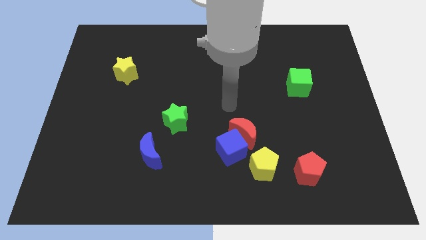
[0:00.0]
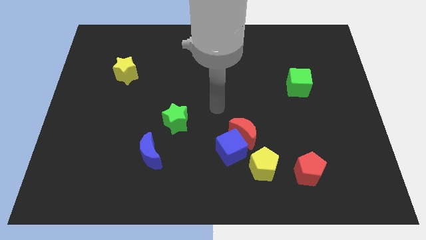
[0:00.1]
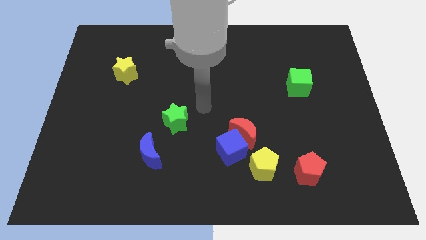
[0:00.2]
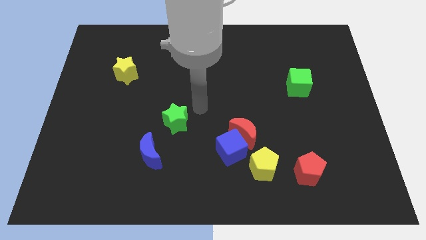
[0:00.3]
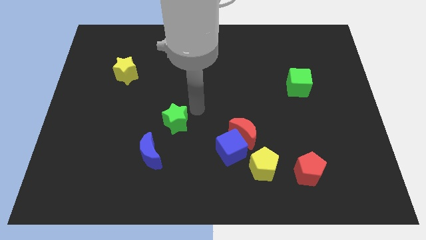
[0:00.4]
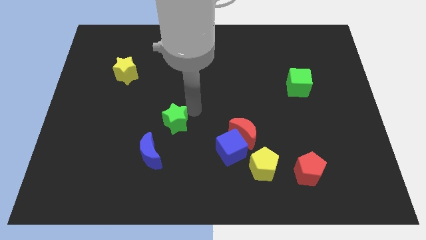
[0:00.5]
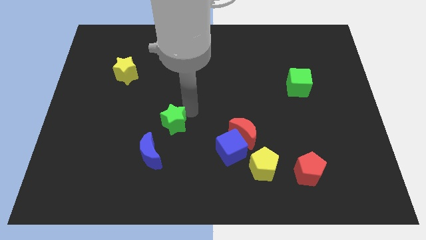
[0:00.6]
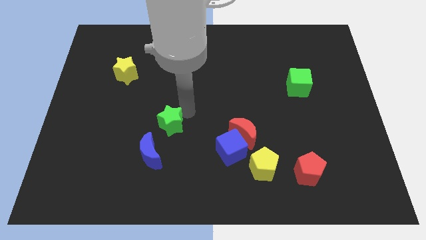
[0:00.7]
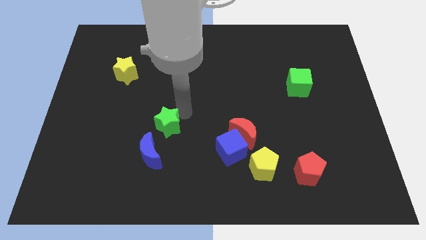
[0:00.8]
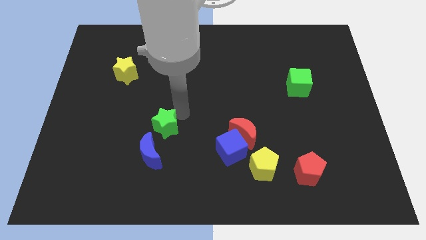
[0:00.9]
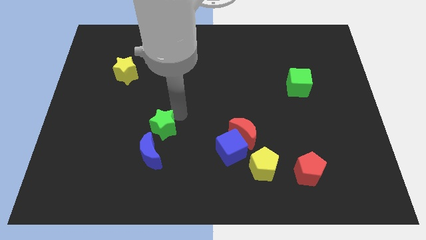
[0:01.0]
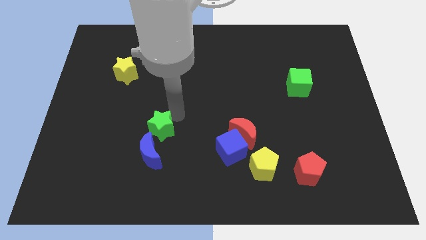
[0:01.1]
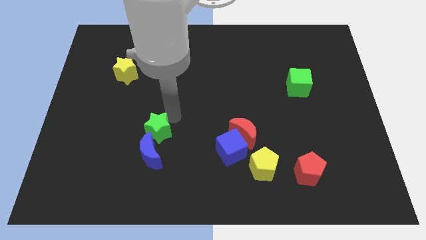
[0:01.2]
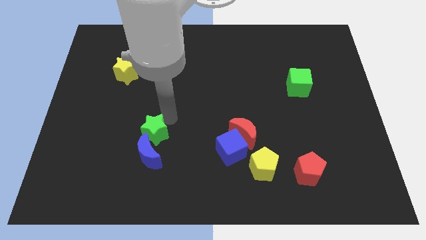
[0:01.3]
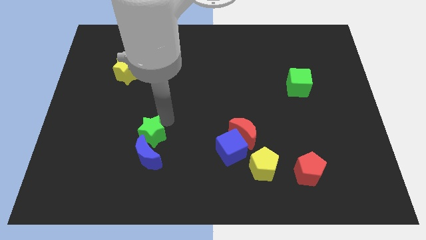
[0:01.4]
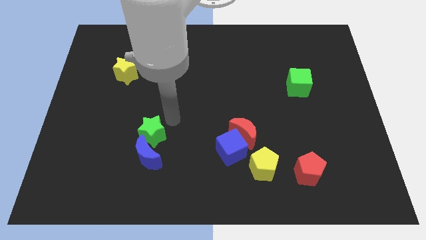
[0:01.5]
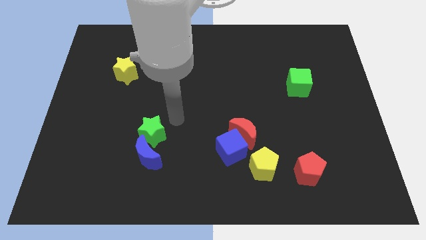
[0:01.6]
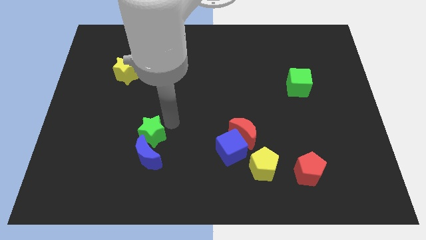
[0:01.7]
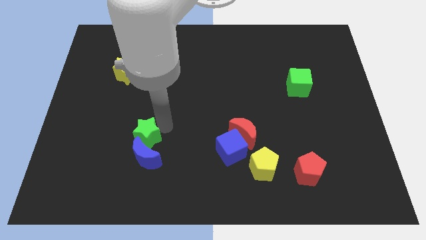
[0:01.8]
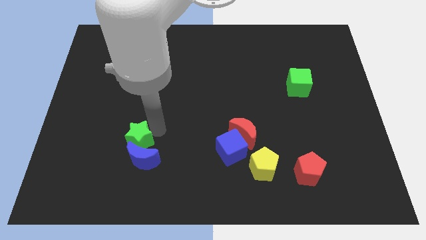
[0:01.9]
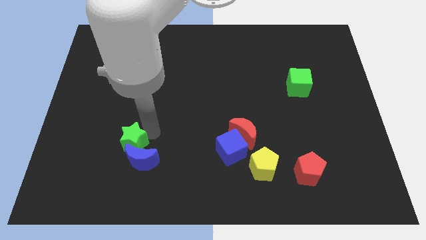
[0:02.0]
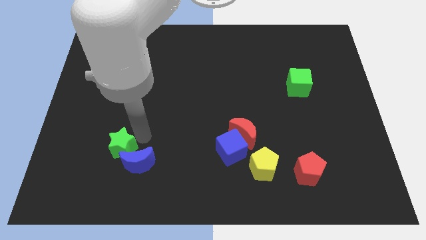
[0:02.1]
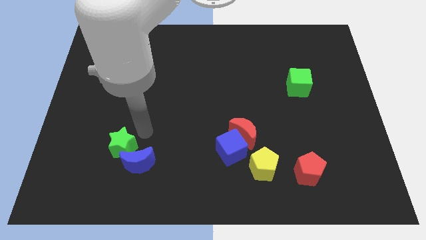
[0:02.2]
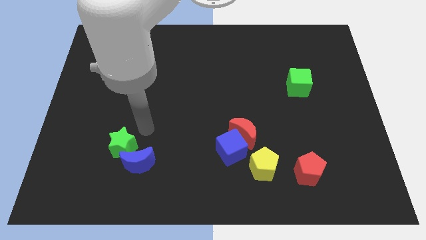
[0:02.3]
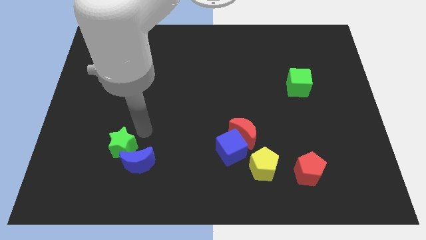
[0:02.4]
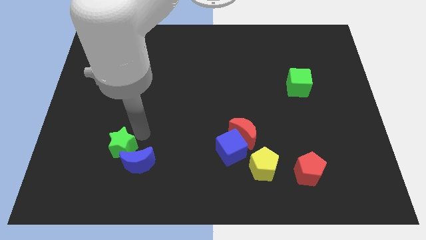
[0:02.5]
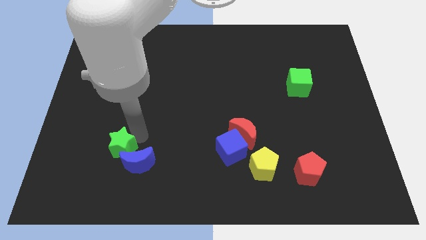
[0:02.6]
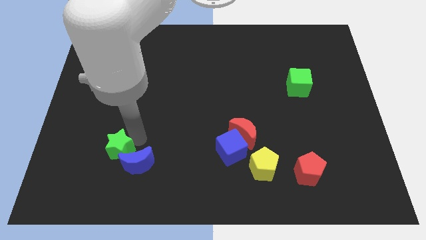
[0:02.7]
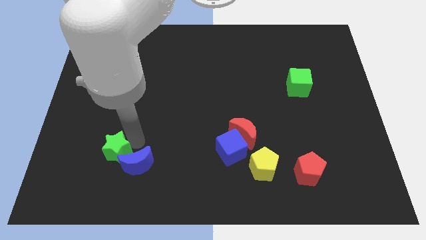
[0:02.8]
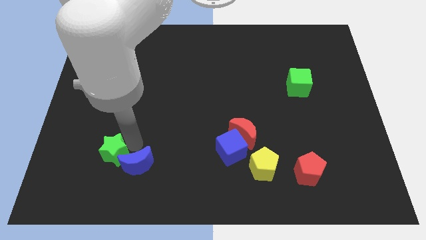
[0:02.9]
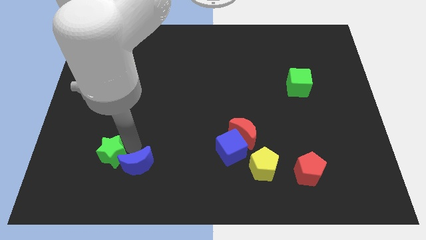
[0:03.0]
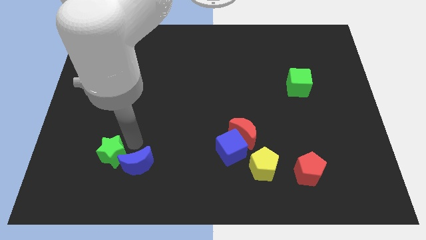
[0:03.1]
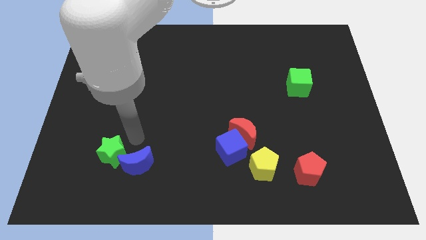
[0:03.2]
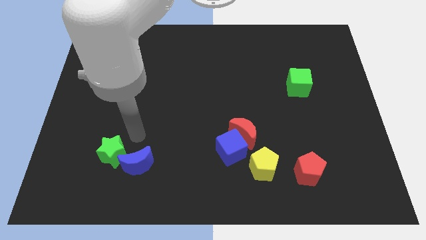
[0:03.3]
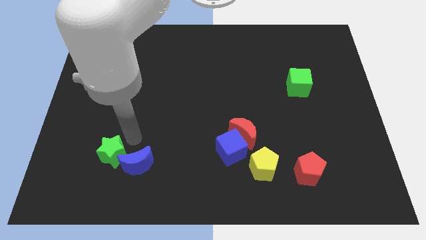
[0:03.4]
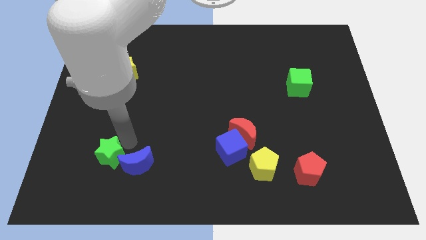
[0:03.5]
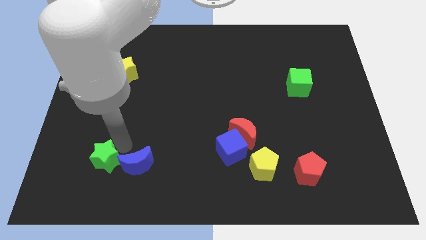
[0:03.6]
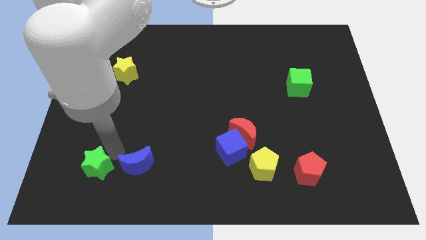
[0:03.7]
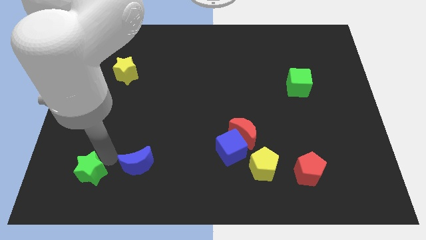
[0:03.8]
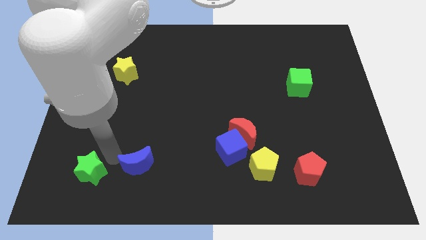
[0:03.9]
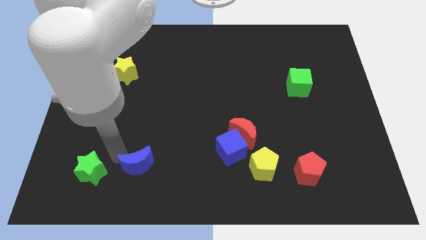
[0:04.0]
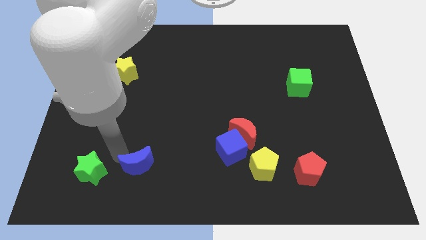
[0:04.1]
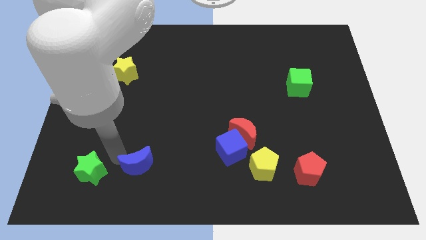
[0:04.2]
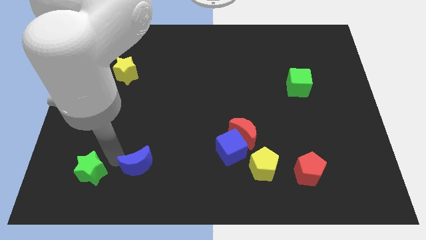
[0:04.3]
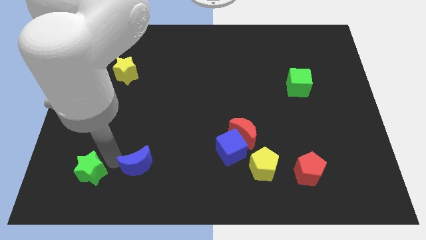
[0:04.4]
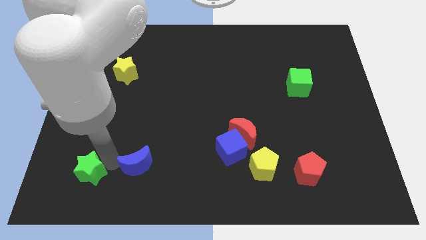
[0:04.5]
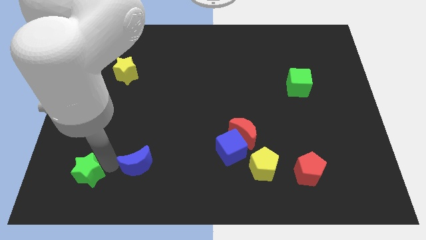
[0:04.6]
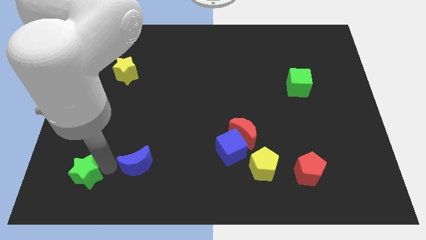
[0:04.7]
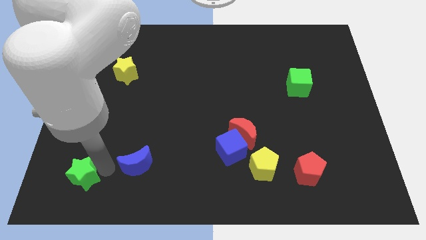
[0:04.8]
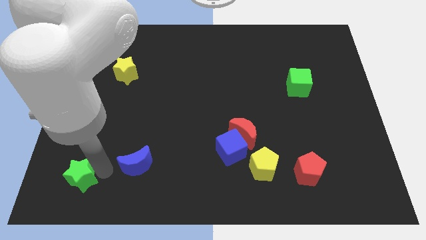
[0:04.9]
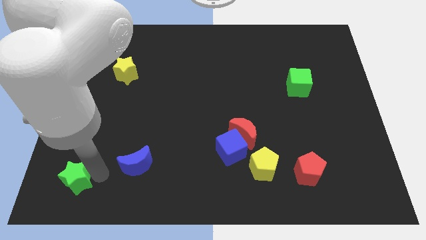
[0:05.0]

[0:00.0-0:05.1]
move the green star to the bottom left corner

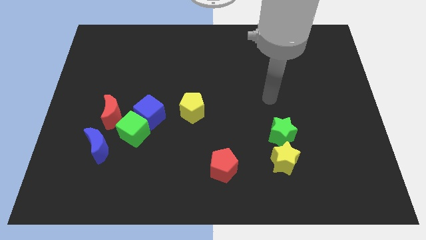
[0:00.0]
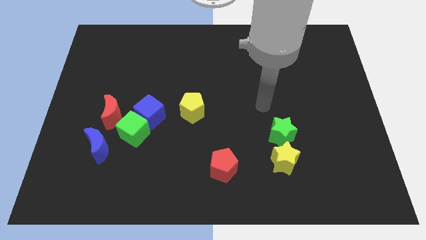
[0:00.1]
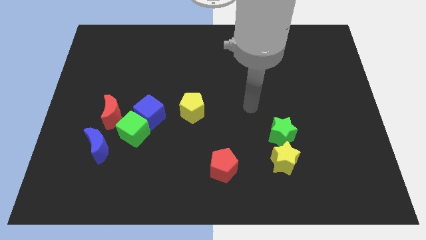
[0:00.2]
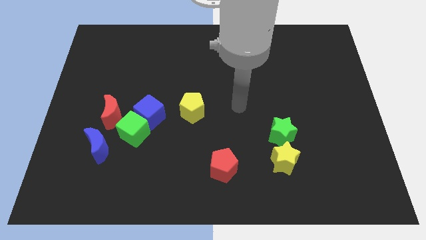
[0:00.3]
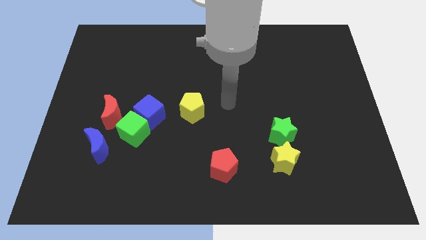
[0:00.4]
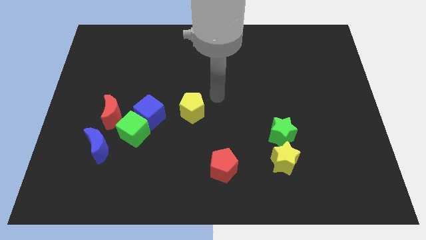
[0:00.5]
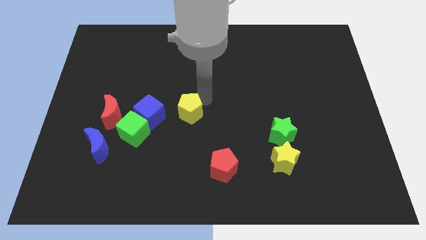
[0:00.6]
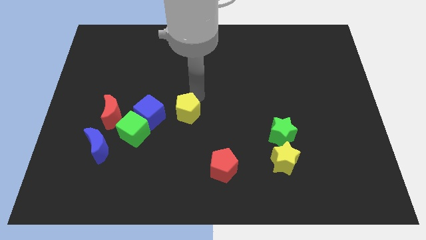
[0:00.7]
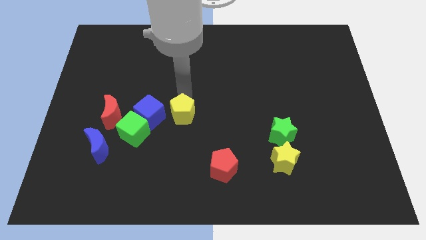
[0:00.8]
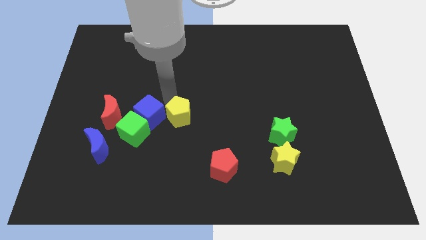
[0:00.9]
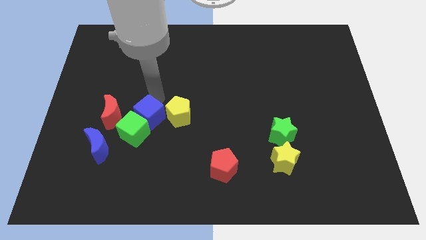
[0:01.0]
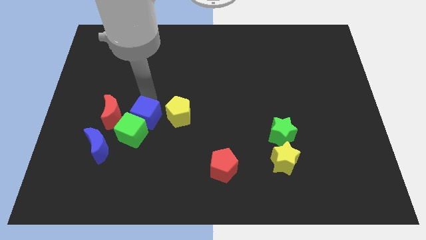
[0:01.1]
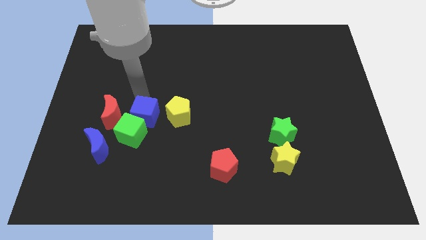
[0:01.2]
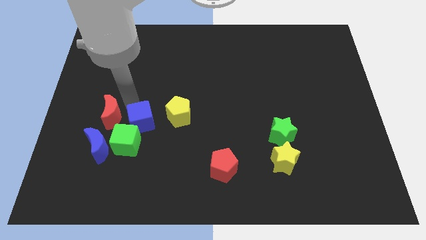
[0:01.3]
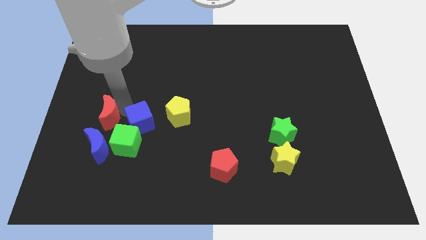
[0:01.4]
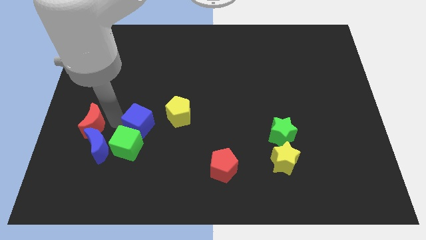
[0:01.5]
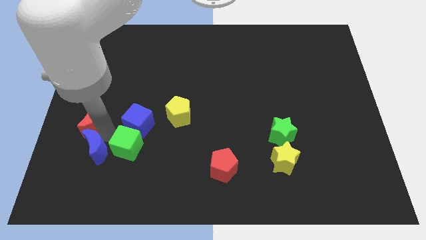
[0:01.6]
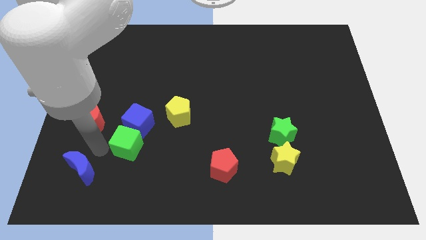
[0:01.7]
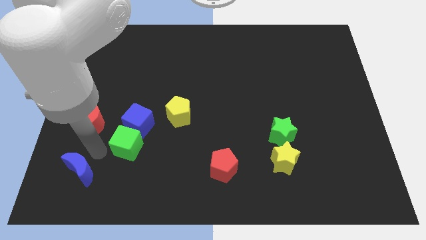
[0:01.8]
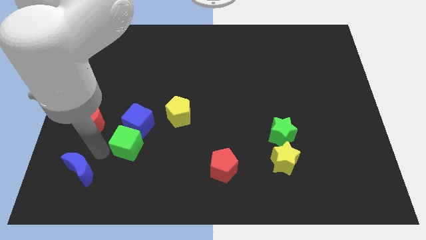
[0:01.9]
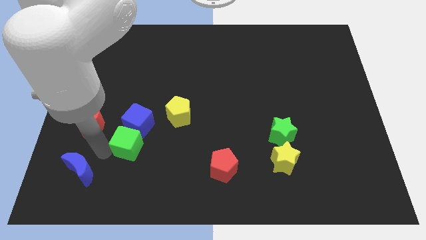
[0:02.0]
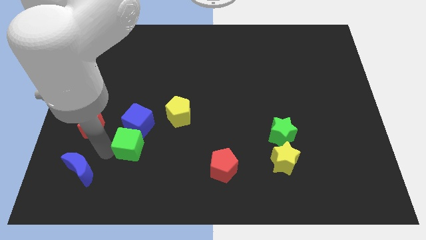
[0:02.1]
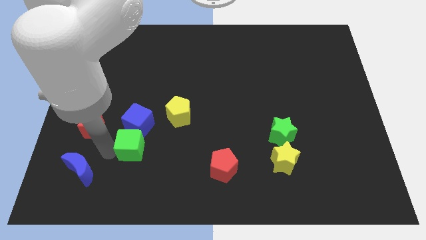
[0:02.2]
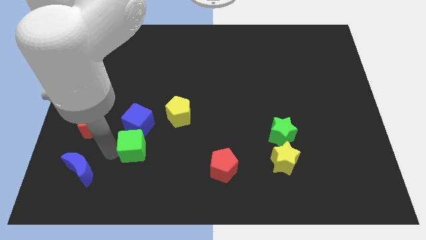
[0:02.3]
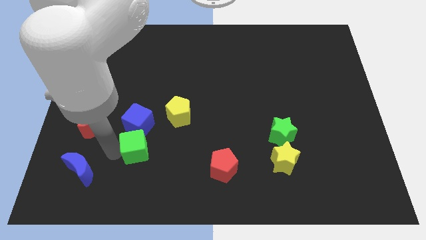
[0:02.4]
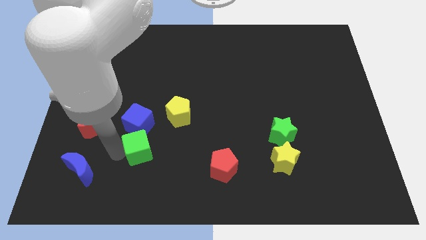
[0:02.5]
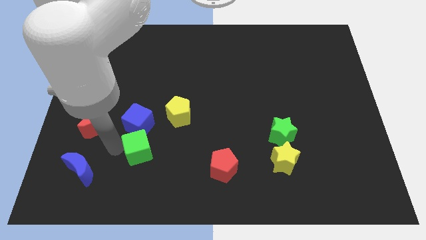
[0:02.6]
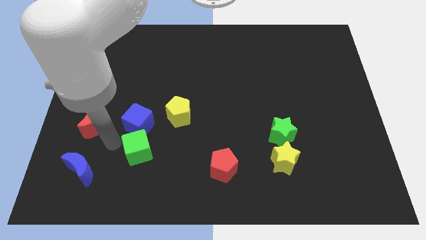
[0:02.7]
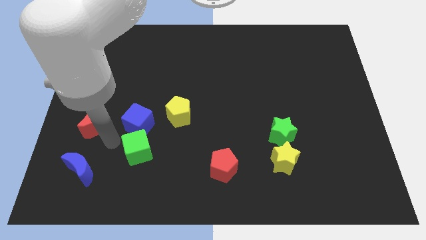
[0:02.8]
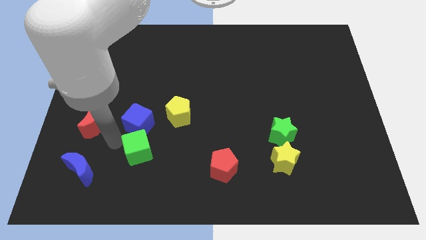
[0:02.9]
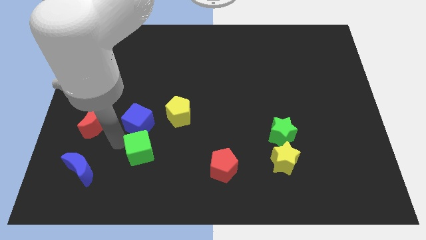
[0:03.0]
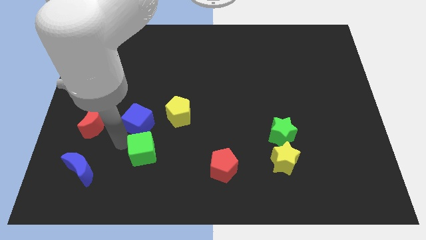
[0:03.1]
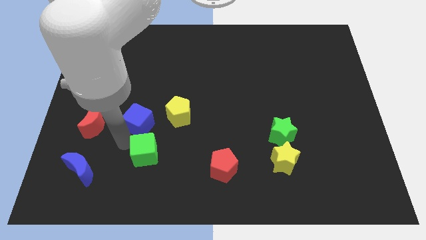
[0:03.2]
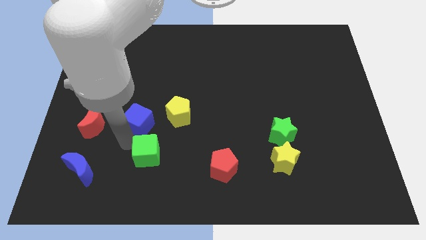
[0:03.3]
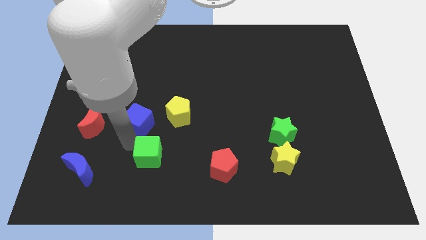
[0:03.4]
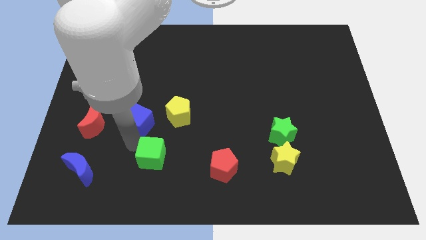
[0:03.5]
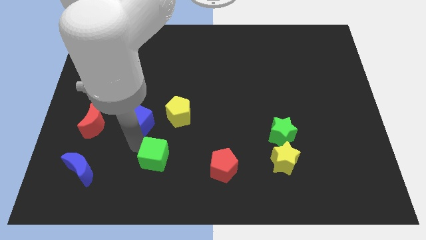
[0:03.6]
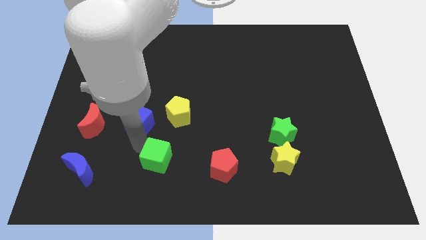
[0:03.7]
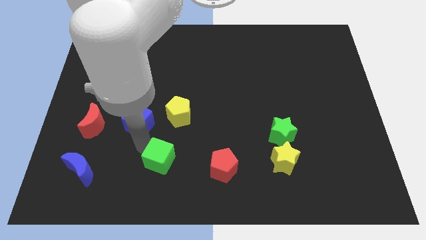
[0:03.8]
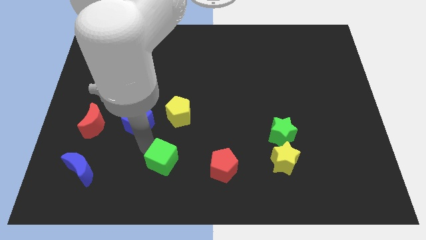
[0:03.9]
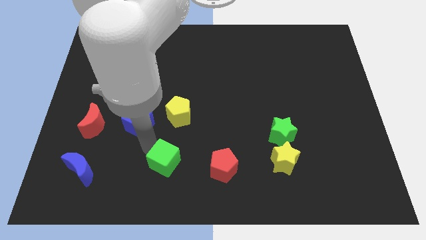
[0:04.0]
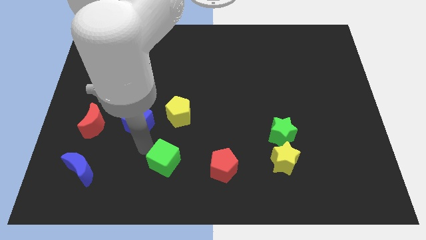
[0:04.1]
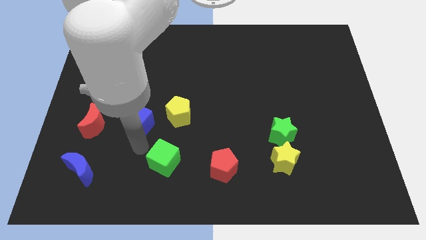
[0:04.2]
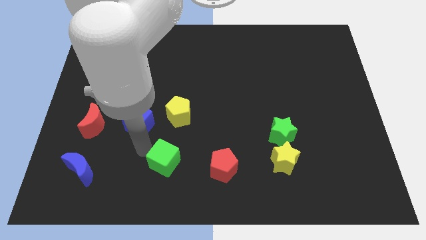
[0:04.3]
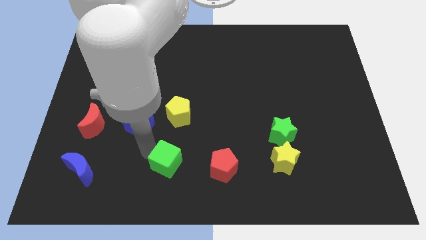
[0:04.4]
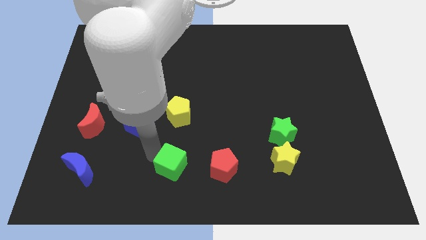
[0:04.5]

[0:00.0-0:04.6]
slide the green cube to the bottom side
